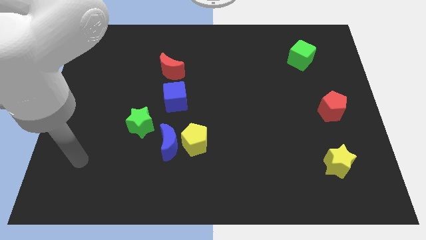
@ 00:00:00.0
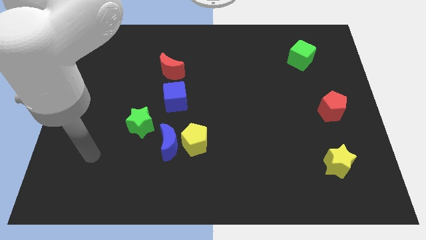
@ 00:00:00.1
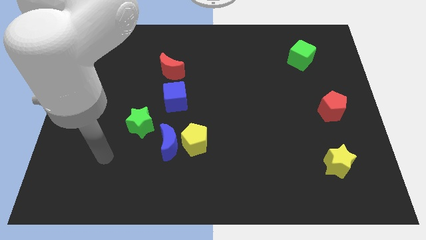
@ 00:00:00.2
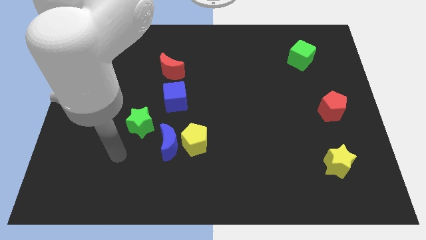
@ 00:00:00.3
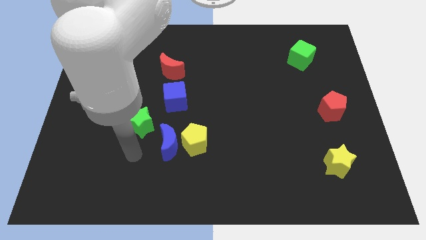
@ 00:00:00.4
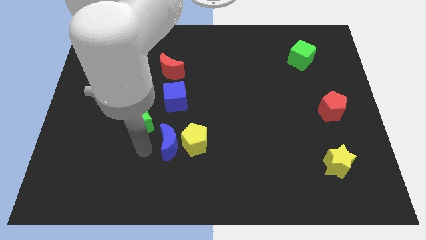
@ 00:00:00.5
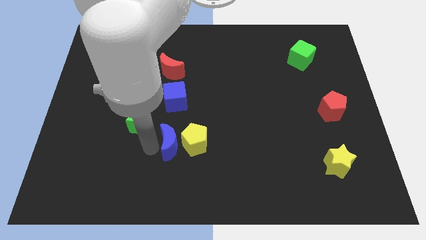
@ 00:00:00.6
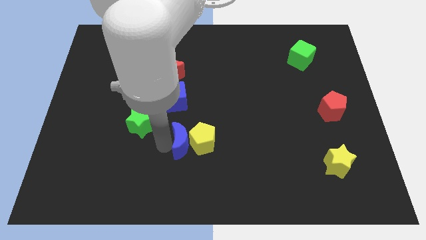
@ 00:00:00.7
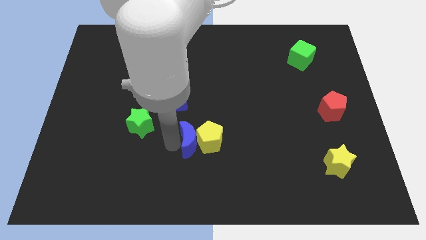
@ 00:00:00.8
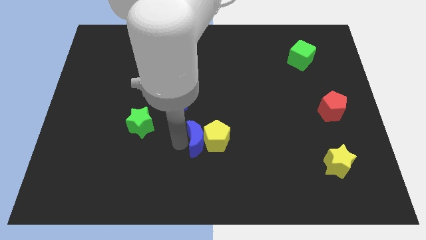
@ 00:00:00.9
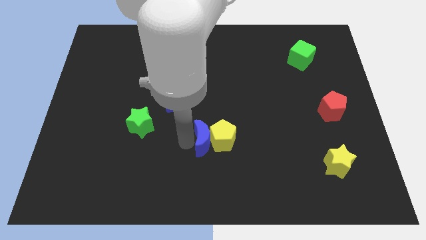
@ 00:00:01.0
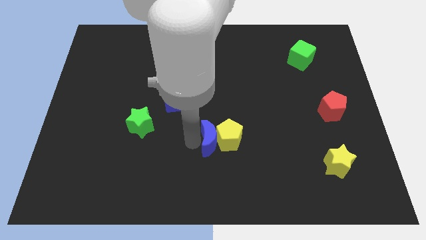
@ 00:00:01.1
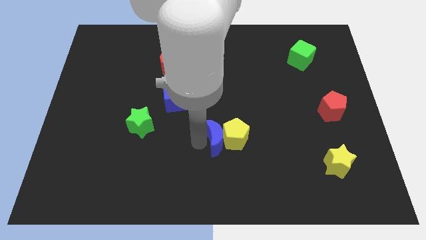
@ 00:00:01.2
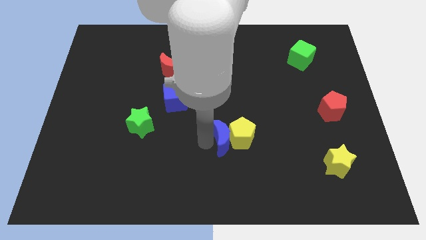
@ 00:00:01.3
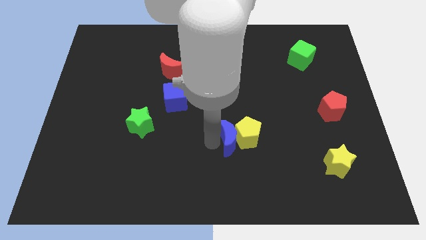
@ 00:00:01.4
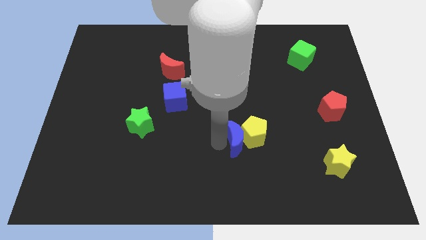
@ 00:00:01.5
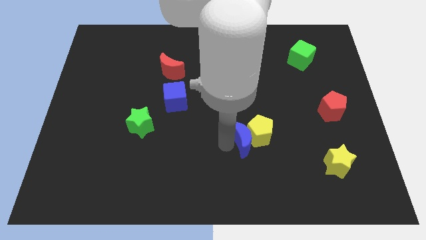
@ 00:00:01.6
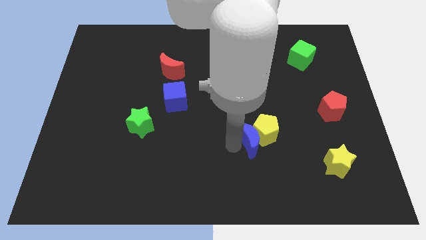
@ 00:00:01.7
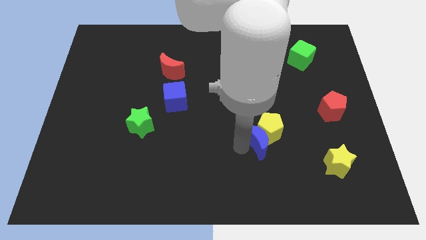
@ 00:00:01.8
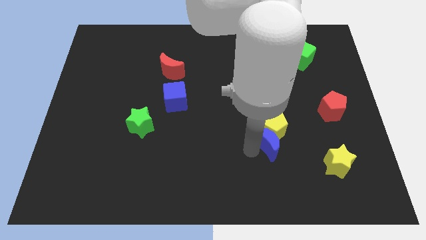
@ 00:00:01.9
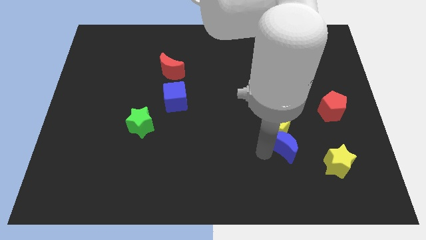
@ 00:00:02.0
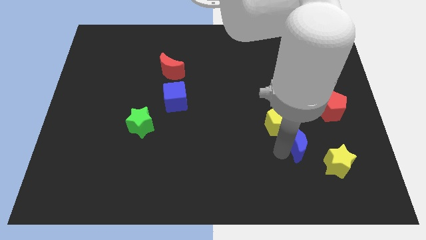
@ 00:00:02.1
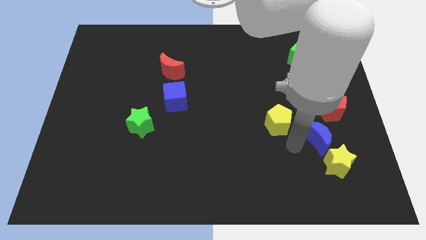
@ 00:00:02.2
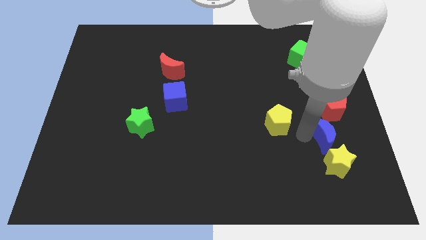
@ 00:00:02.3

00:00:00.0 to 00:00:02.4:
move the yellow pentagon away from the blue moon

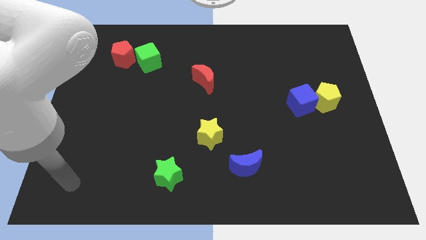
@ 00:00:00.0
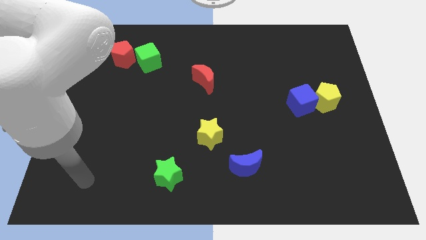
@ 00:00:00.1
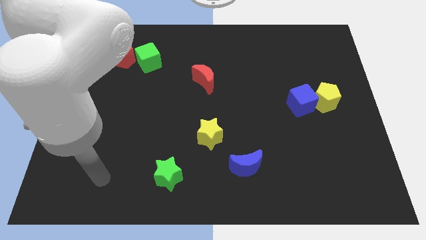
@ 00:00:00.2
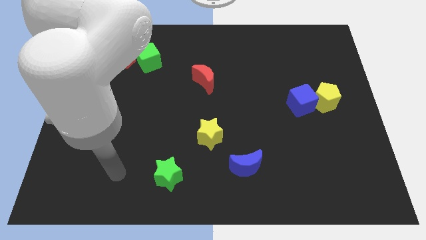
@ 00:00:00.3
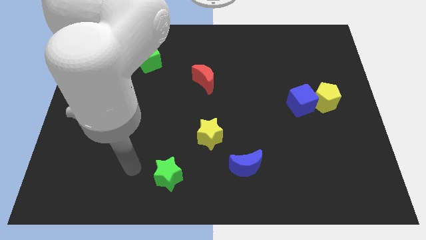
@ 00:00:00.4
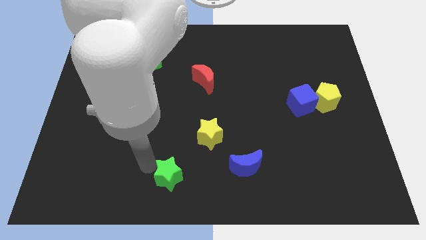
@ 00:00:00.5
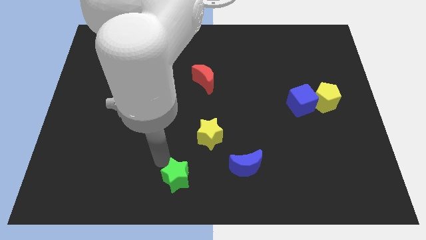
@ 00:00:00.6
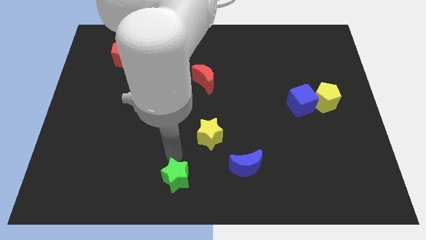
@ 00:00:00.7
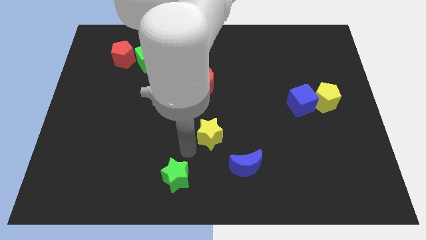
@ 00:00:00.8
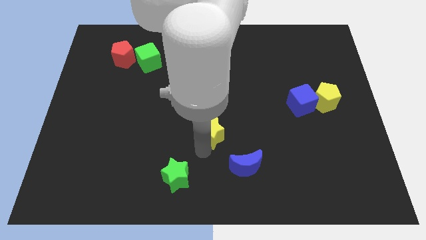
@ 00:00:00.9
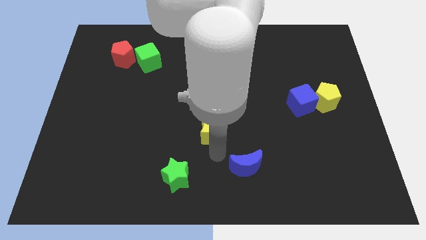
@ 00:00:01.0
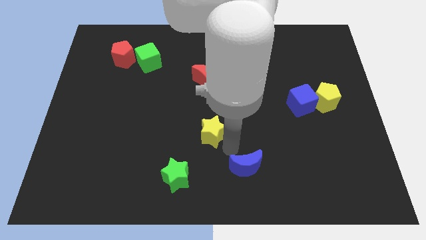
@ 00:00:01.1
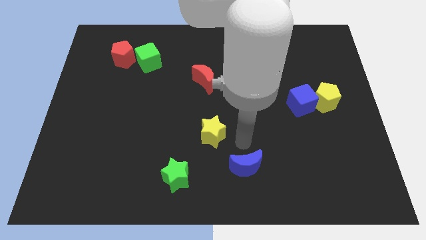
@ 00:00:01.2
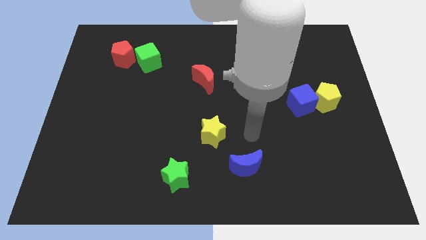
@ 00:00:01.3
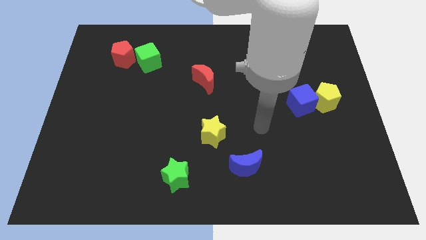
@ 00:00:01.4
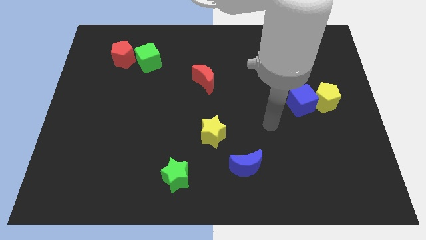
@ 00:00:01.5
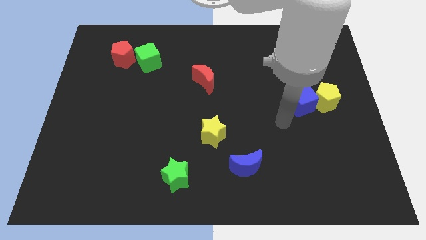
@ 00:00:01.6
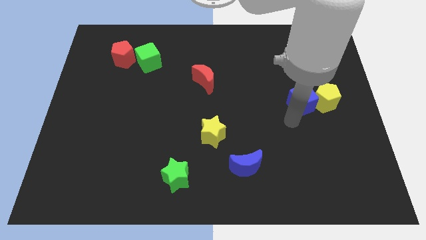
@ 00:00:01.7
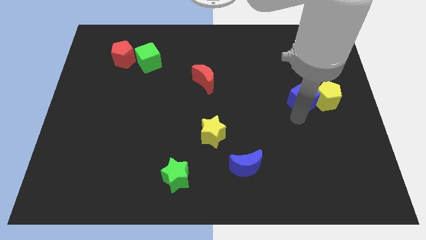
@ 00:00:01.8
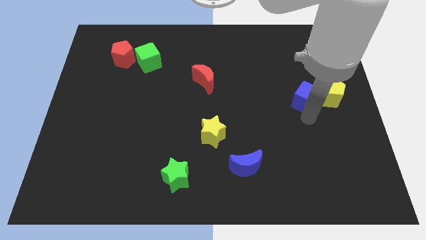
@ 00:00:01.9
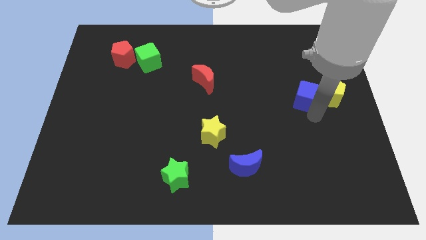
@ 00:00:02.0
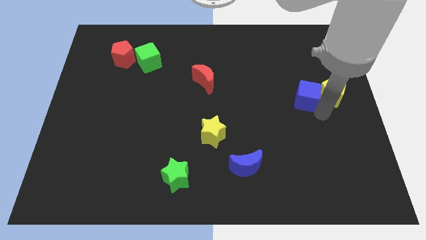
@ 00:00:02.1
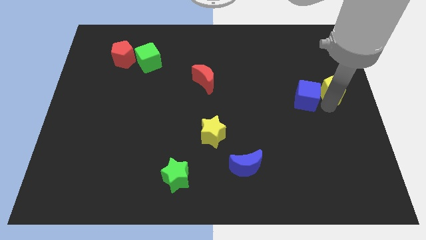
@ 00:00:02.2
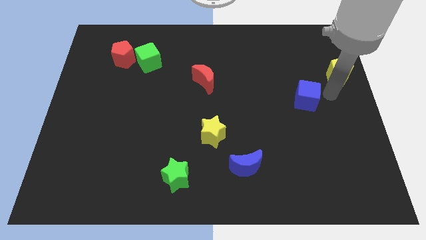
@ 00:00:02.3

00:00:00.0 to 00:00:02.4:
separate the blue cube from the yellow pentagon

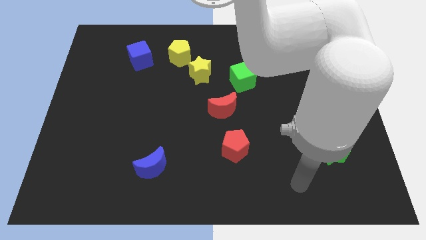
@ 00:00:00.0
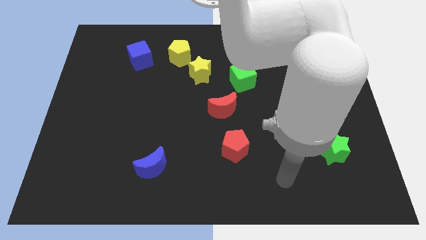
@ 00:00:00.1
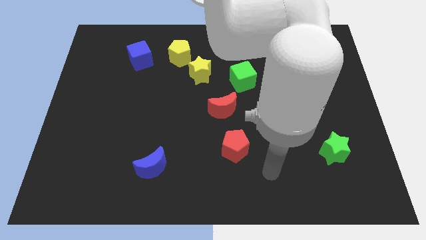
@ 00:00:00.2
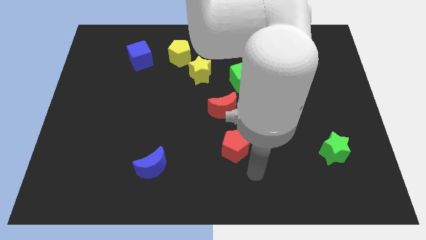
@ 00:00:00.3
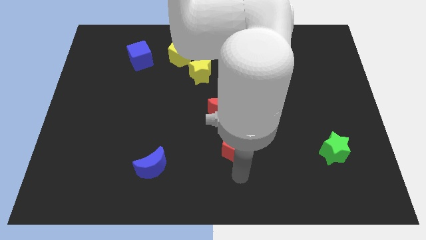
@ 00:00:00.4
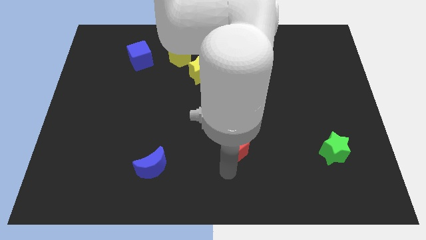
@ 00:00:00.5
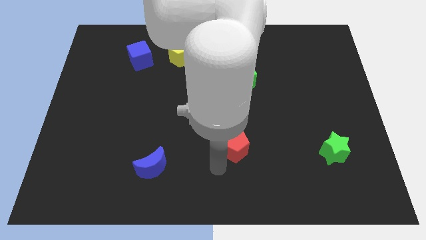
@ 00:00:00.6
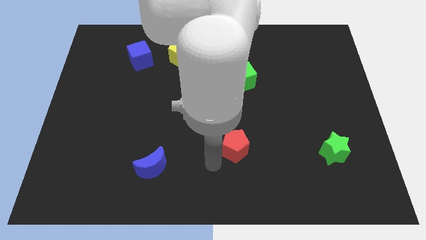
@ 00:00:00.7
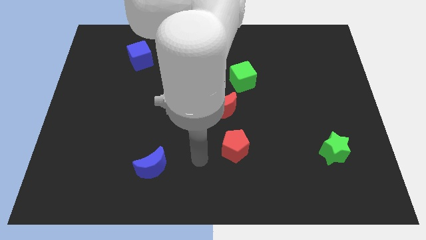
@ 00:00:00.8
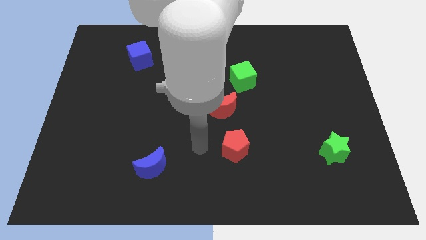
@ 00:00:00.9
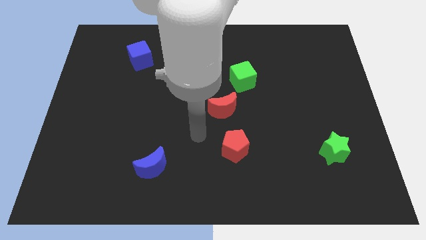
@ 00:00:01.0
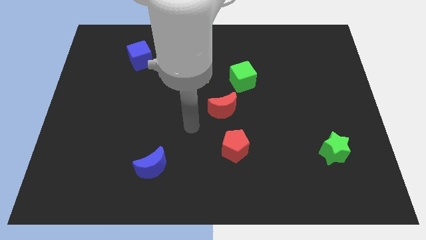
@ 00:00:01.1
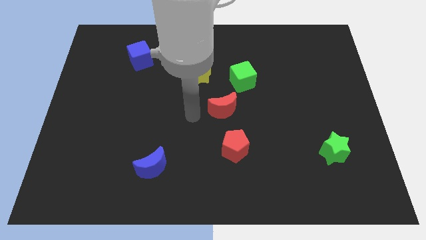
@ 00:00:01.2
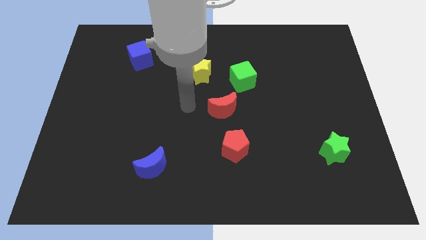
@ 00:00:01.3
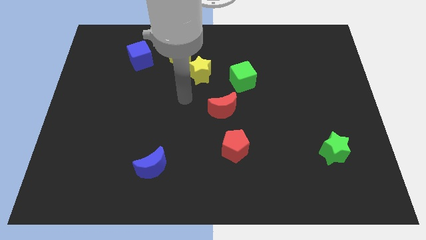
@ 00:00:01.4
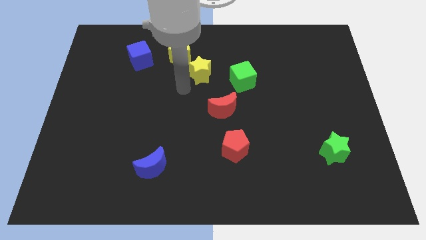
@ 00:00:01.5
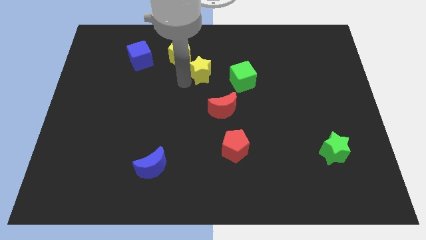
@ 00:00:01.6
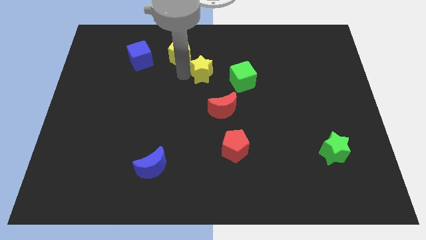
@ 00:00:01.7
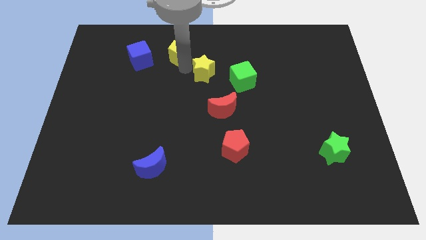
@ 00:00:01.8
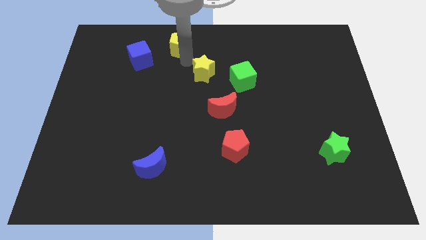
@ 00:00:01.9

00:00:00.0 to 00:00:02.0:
pull the yellow star apart from the yellow pentagon

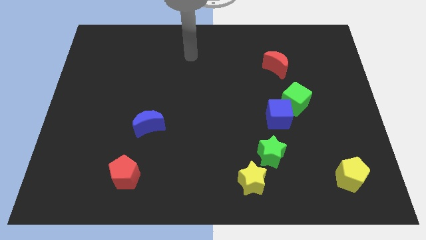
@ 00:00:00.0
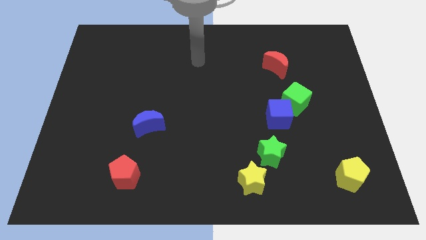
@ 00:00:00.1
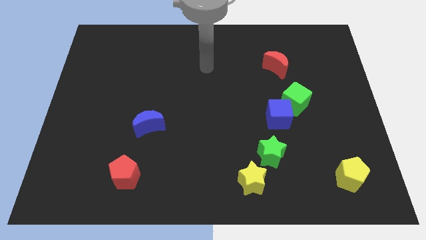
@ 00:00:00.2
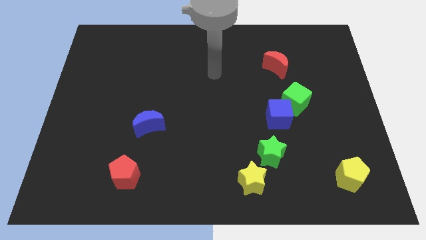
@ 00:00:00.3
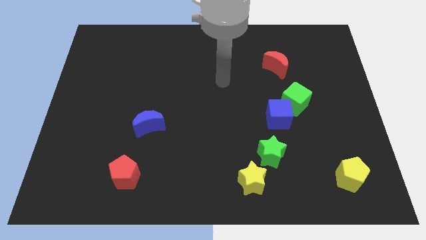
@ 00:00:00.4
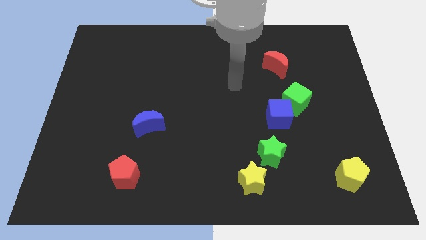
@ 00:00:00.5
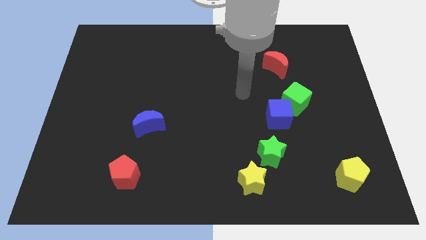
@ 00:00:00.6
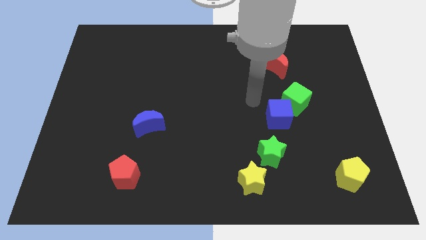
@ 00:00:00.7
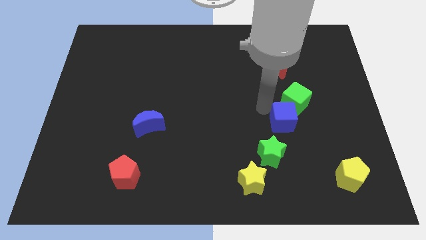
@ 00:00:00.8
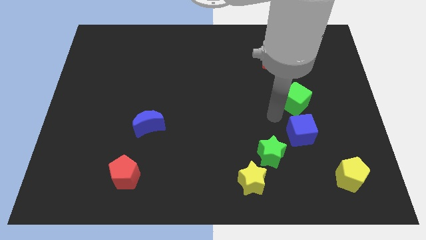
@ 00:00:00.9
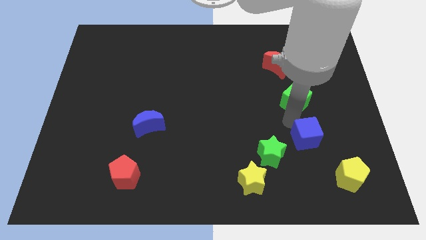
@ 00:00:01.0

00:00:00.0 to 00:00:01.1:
separate the green cube from the blue cube

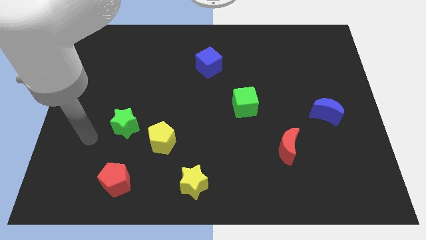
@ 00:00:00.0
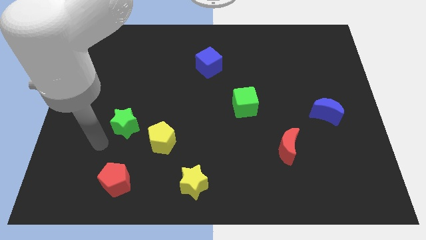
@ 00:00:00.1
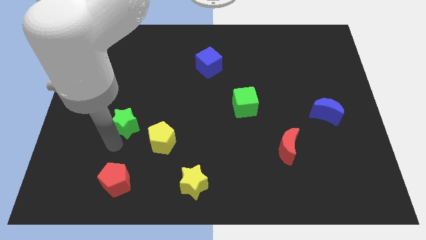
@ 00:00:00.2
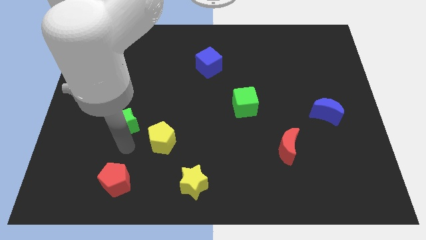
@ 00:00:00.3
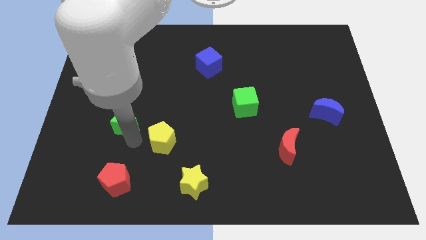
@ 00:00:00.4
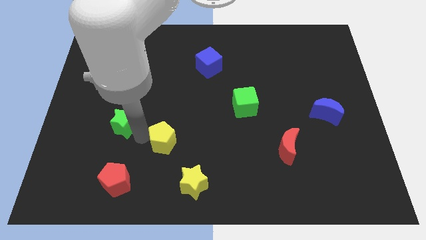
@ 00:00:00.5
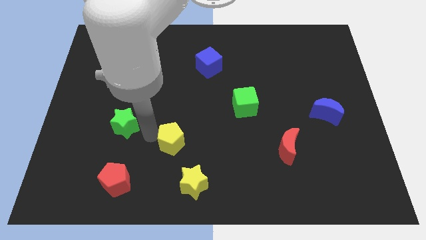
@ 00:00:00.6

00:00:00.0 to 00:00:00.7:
separate the green star from the yellow pentagon

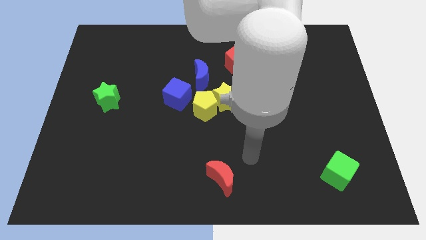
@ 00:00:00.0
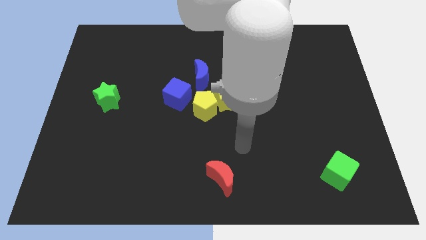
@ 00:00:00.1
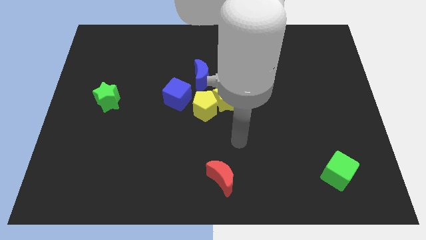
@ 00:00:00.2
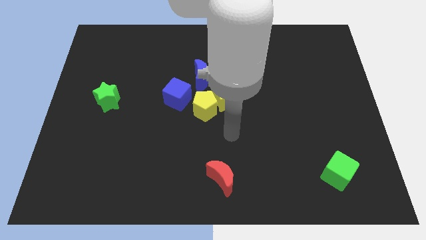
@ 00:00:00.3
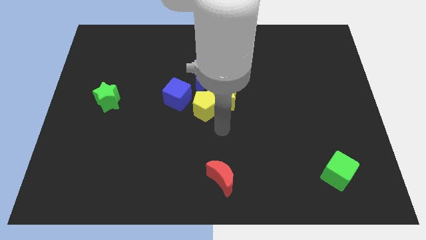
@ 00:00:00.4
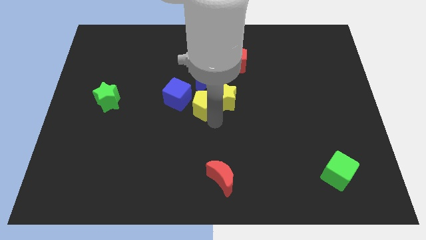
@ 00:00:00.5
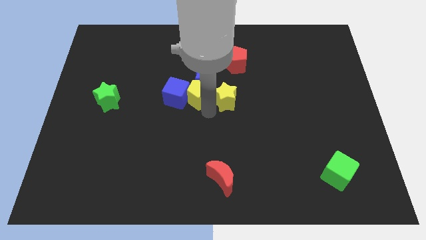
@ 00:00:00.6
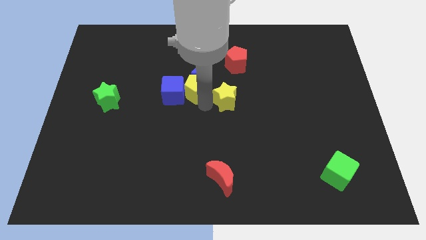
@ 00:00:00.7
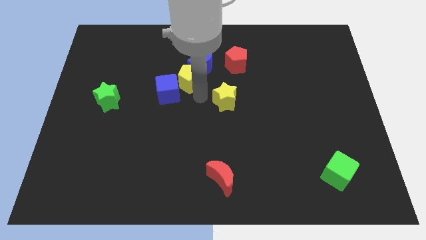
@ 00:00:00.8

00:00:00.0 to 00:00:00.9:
separate the yellow star from the yellow pentagon and blue moon
